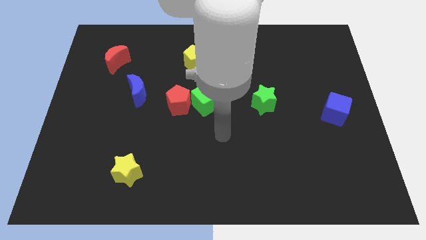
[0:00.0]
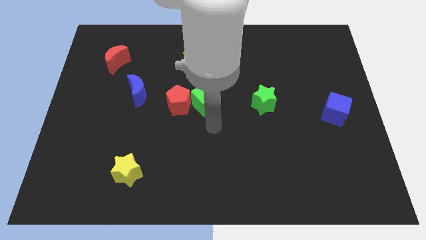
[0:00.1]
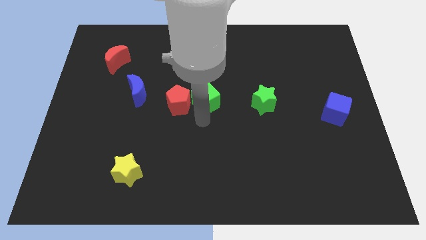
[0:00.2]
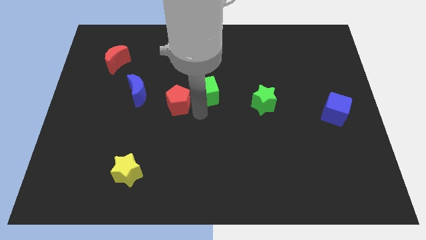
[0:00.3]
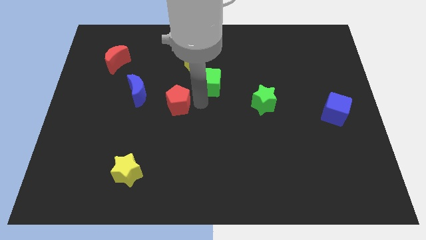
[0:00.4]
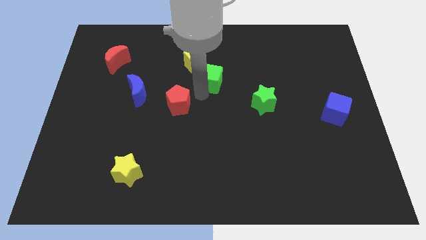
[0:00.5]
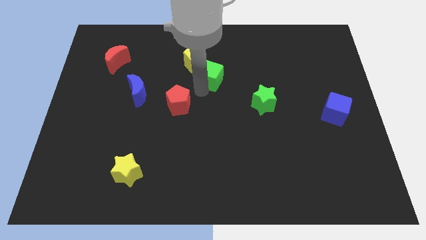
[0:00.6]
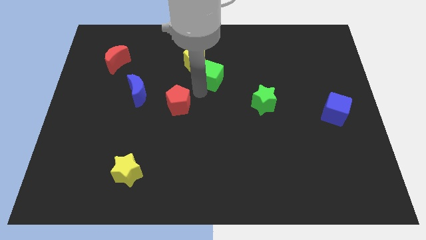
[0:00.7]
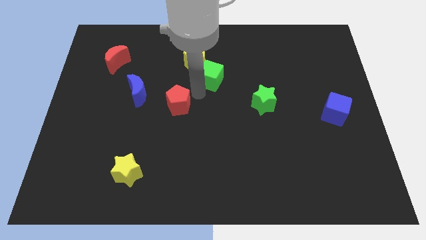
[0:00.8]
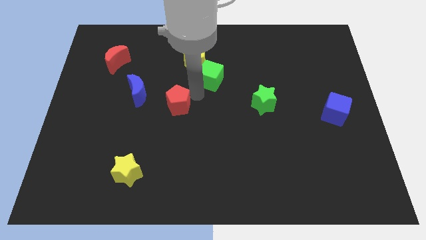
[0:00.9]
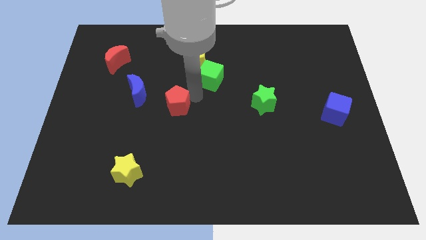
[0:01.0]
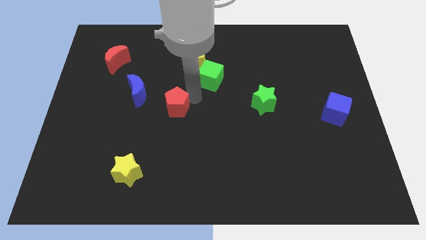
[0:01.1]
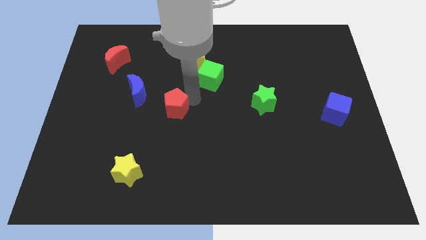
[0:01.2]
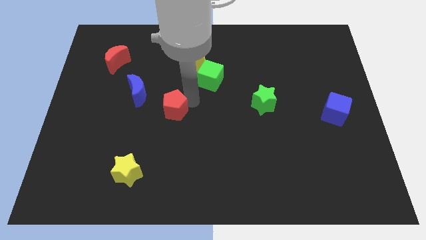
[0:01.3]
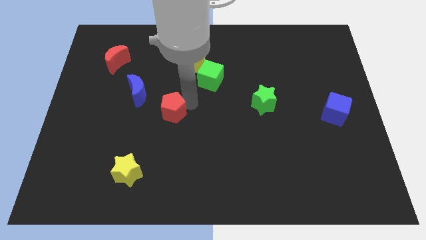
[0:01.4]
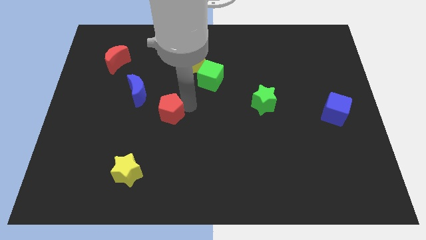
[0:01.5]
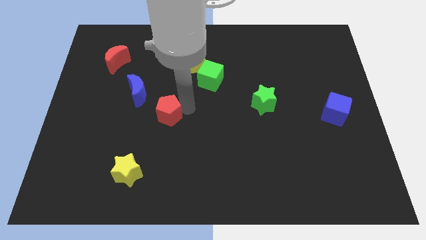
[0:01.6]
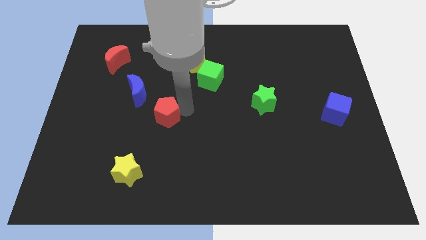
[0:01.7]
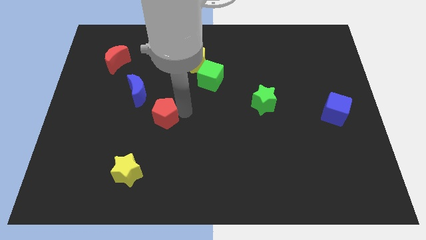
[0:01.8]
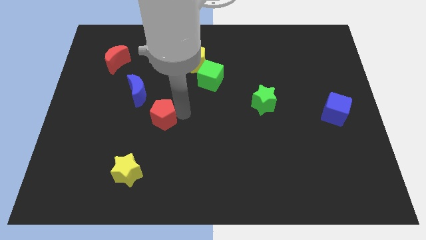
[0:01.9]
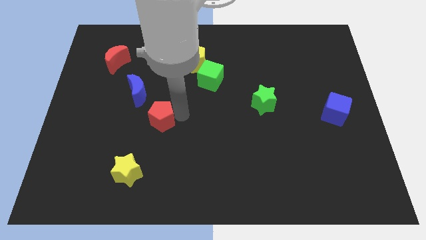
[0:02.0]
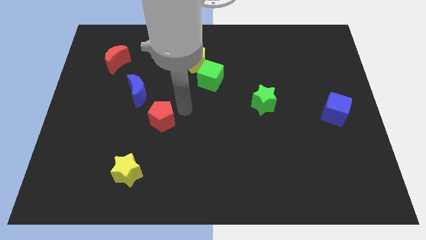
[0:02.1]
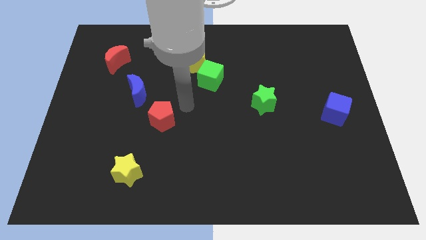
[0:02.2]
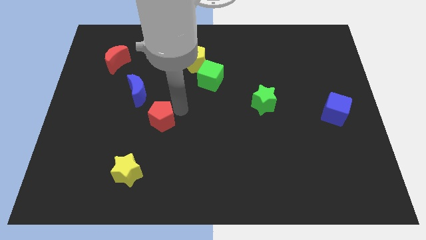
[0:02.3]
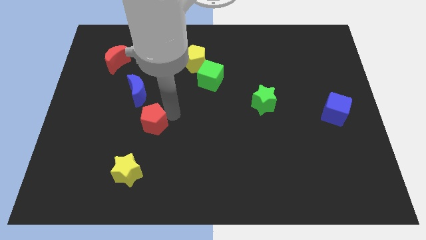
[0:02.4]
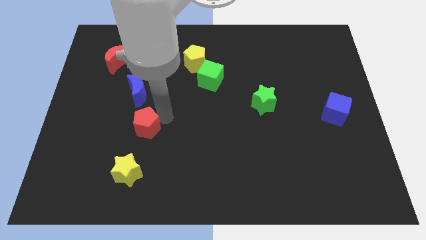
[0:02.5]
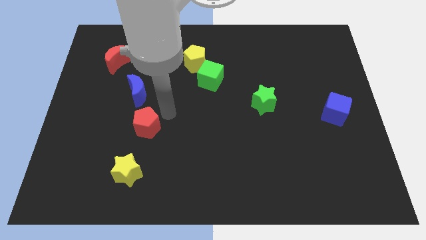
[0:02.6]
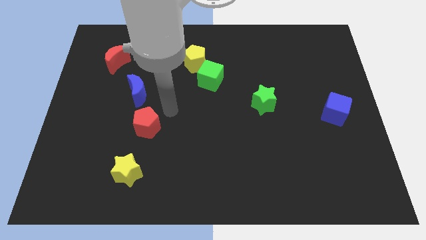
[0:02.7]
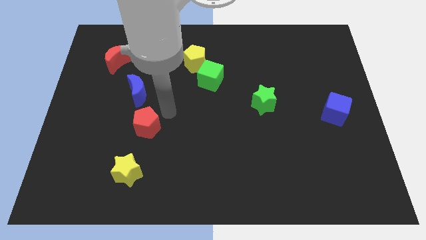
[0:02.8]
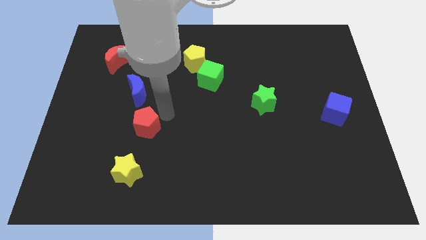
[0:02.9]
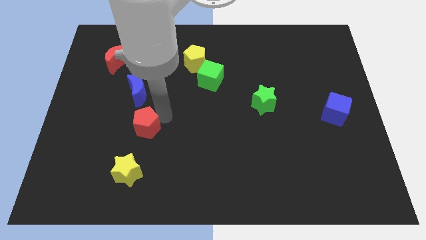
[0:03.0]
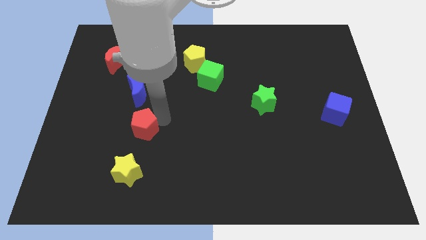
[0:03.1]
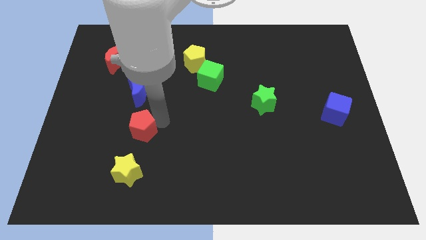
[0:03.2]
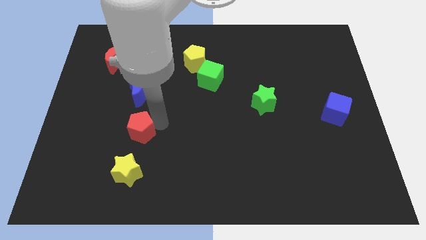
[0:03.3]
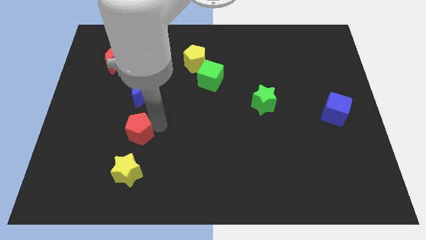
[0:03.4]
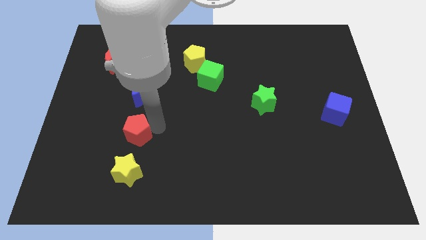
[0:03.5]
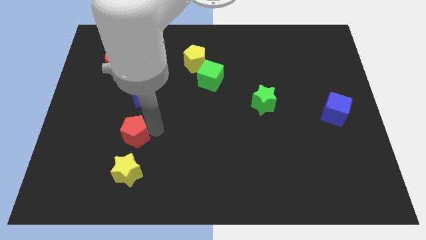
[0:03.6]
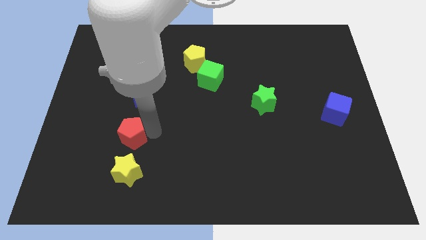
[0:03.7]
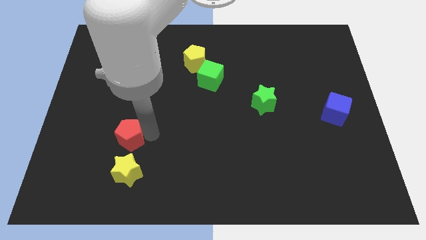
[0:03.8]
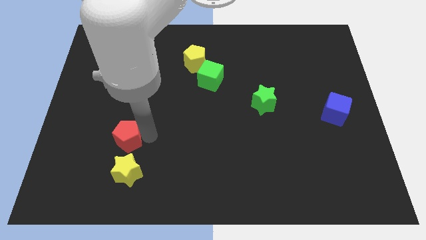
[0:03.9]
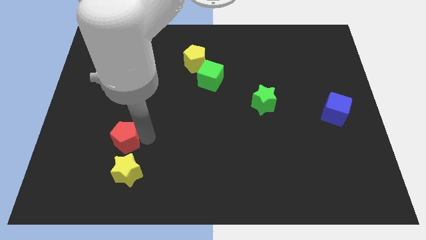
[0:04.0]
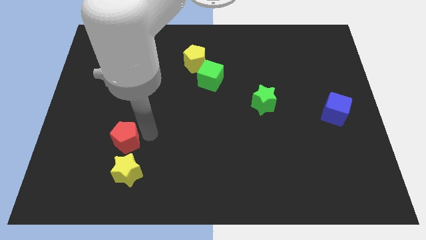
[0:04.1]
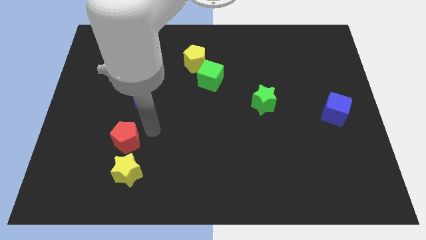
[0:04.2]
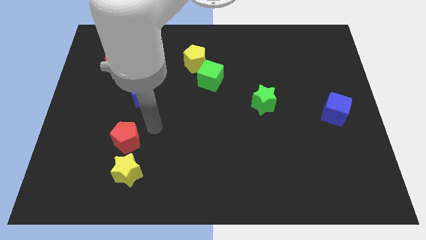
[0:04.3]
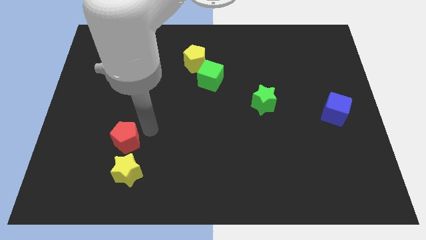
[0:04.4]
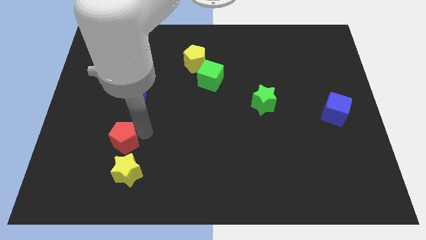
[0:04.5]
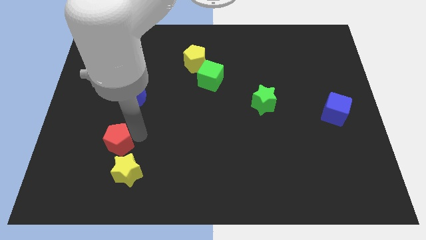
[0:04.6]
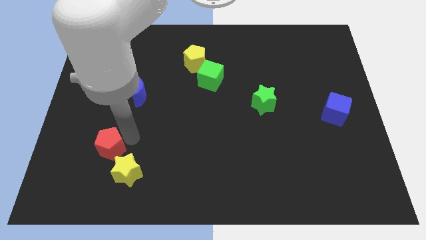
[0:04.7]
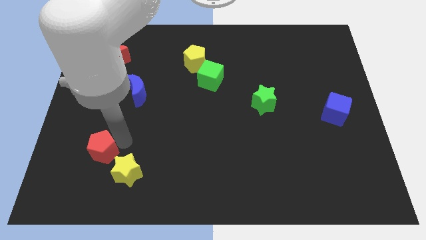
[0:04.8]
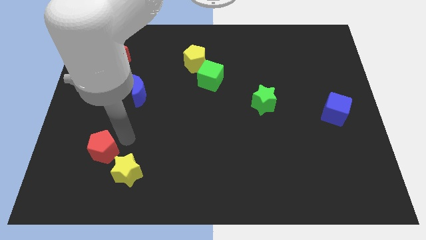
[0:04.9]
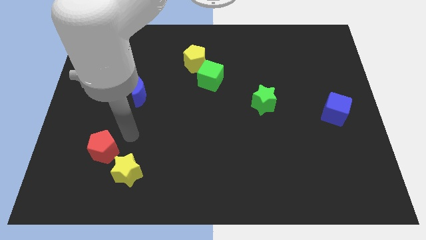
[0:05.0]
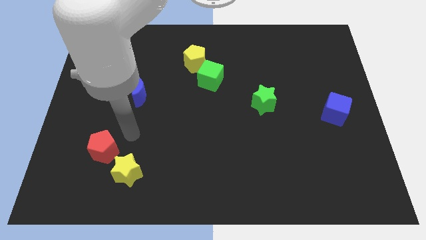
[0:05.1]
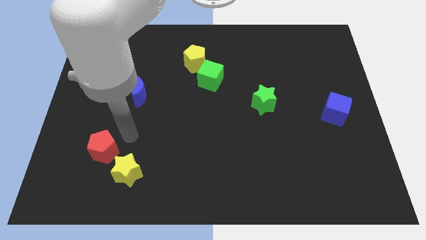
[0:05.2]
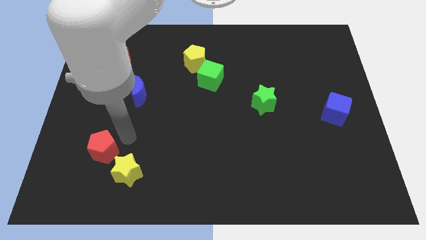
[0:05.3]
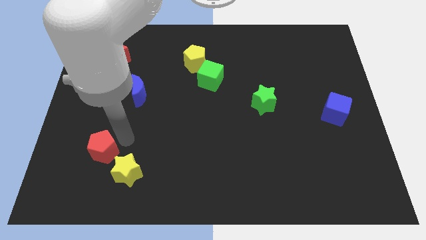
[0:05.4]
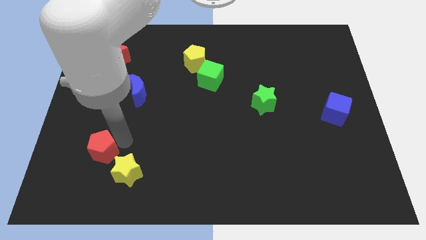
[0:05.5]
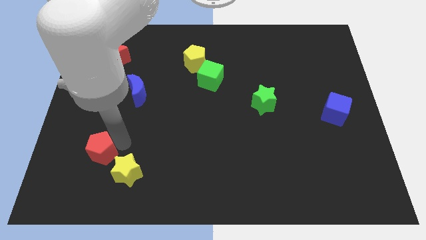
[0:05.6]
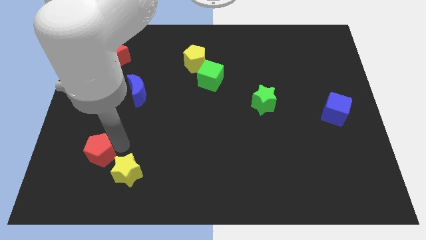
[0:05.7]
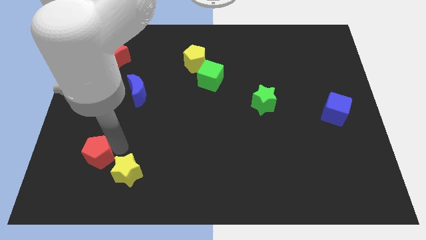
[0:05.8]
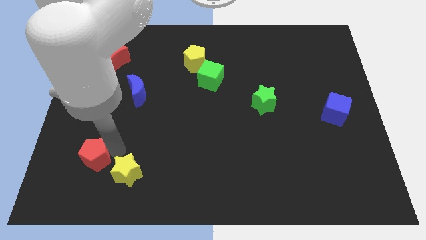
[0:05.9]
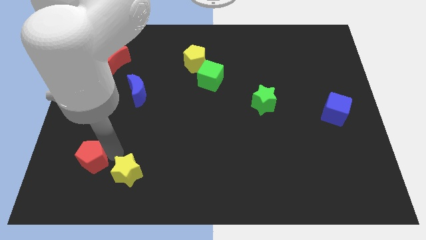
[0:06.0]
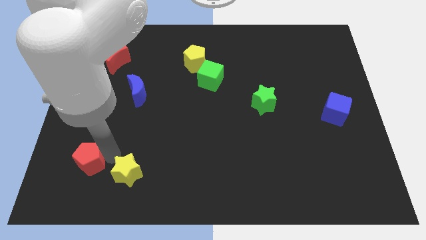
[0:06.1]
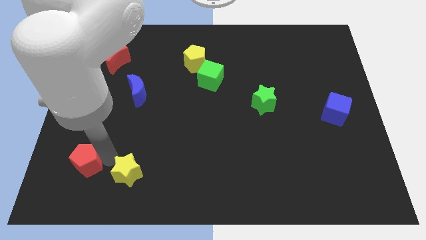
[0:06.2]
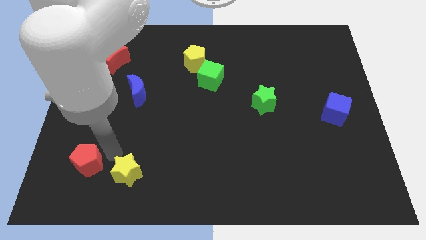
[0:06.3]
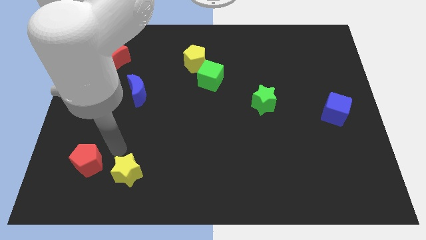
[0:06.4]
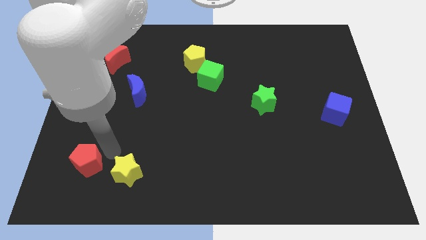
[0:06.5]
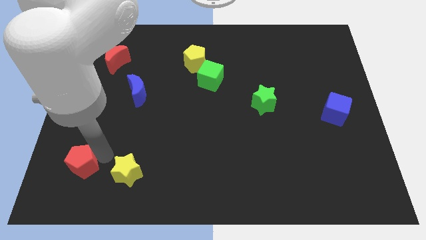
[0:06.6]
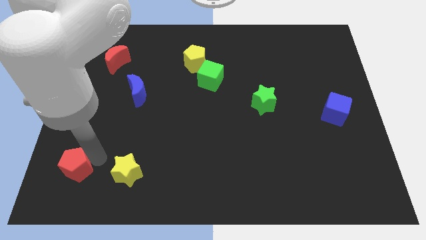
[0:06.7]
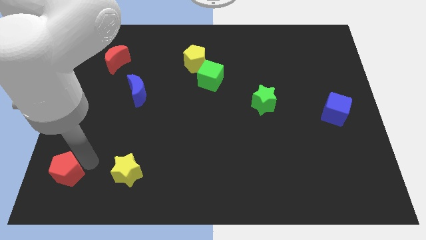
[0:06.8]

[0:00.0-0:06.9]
put the red pentagon to the bottom left of the board
